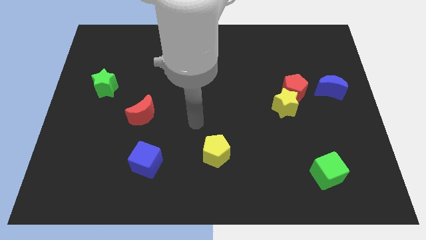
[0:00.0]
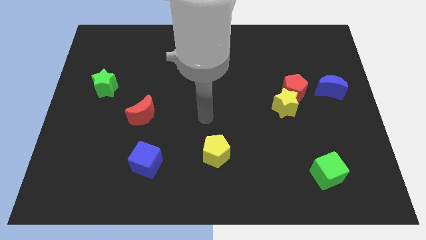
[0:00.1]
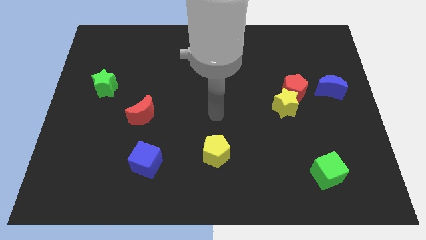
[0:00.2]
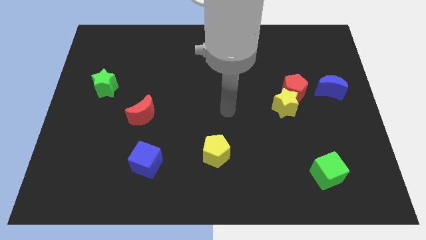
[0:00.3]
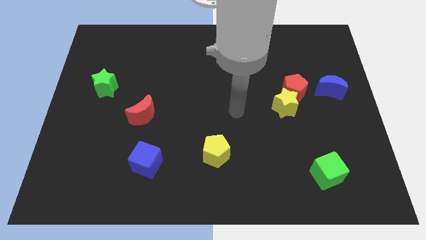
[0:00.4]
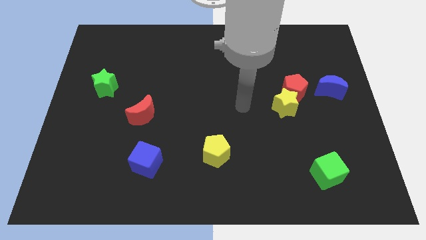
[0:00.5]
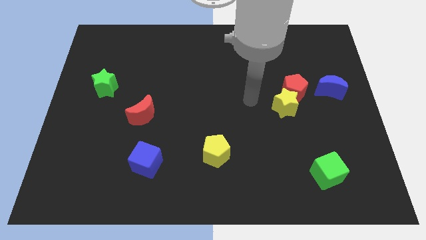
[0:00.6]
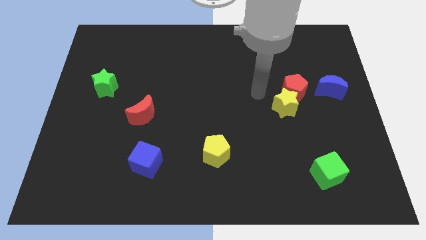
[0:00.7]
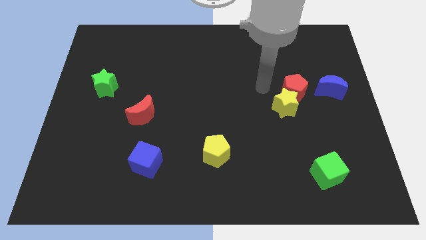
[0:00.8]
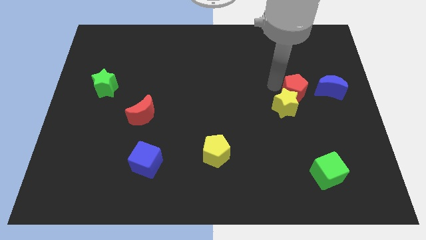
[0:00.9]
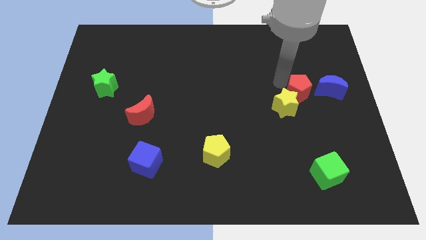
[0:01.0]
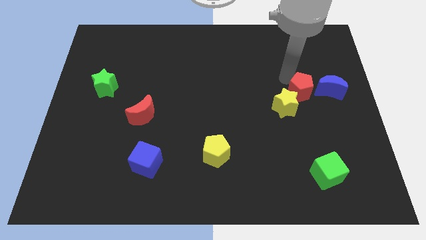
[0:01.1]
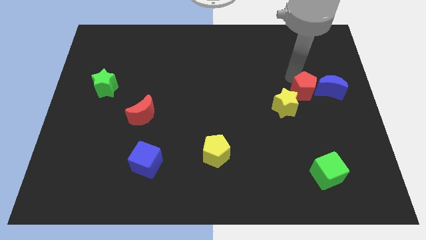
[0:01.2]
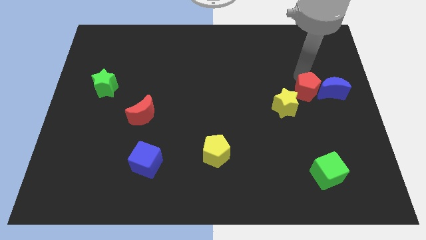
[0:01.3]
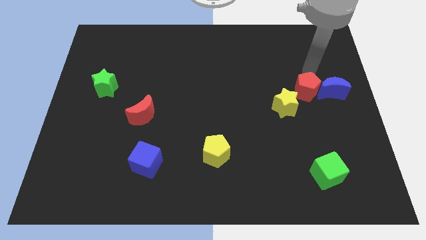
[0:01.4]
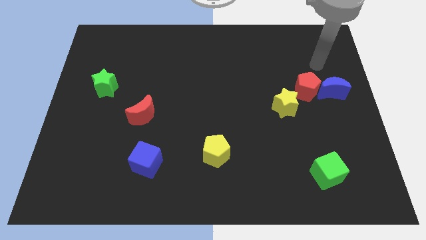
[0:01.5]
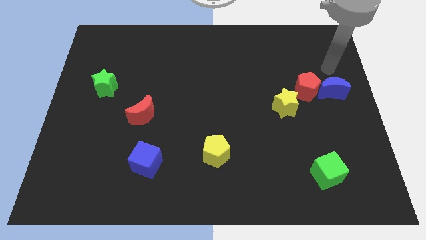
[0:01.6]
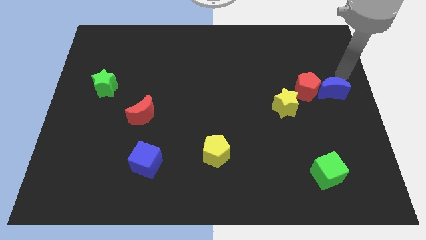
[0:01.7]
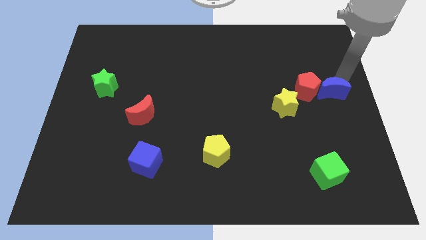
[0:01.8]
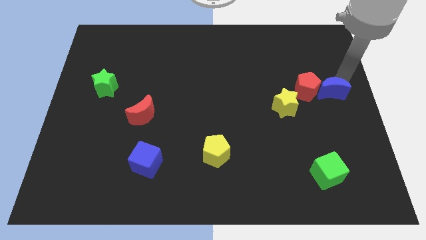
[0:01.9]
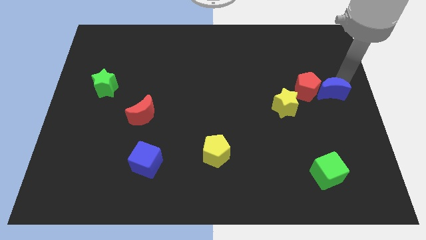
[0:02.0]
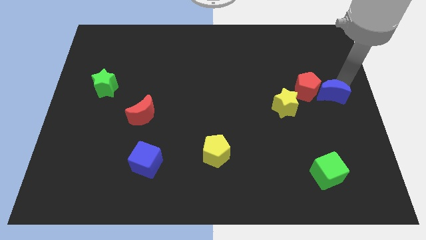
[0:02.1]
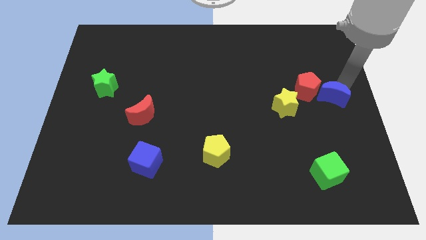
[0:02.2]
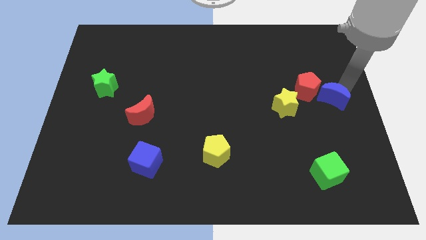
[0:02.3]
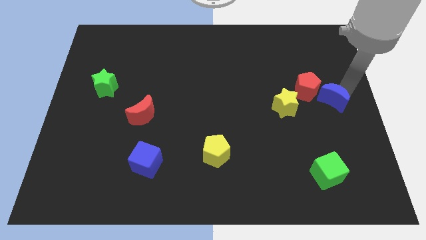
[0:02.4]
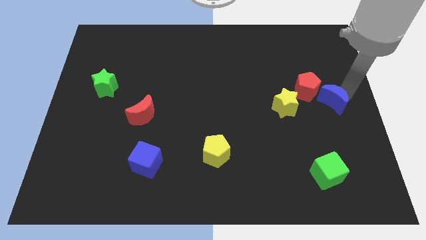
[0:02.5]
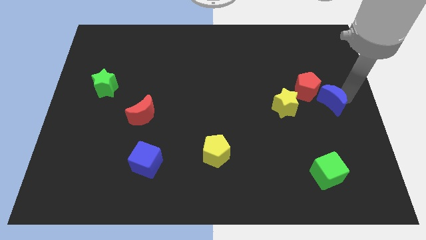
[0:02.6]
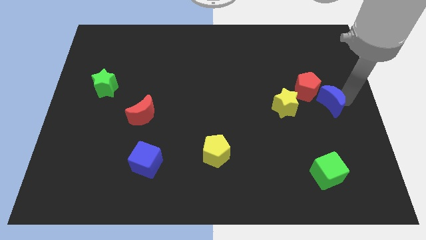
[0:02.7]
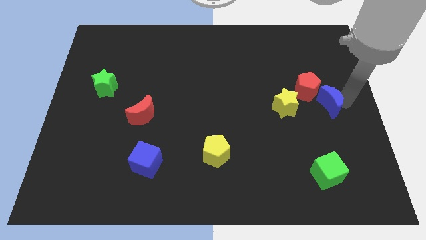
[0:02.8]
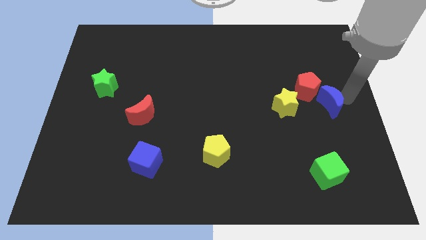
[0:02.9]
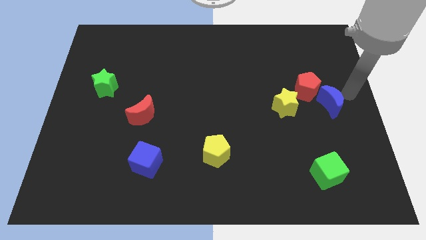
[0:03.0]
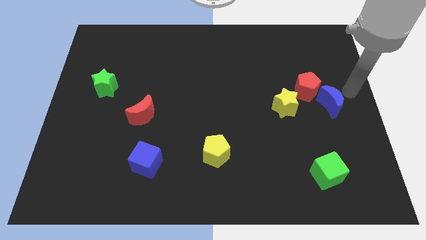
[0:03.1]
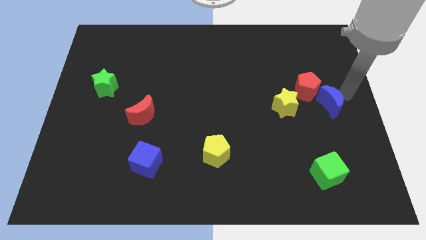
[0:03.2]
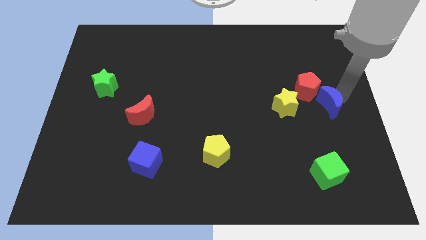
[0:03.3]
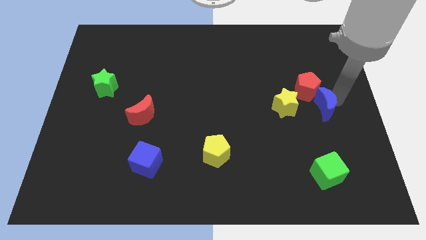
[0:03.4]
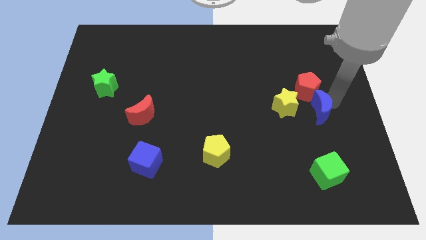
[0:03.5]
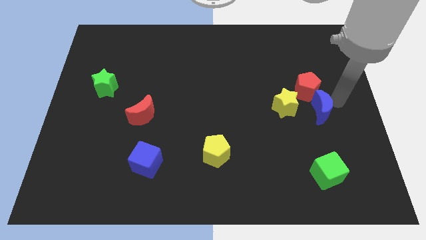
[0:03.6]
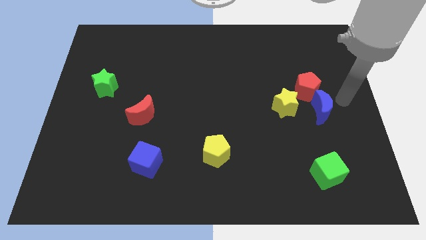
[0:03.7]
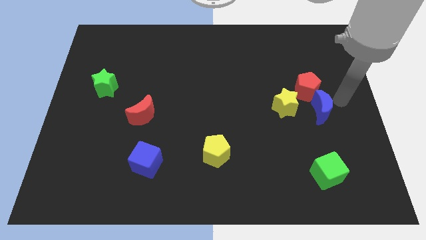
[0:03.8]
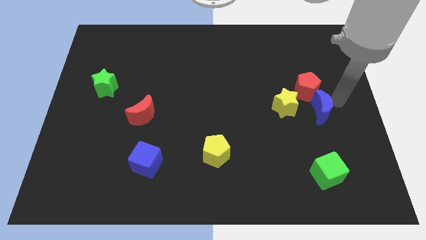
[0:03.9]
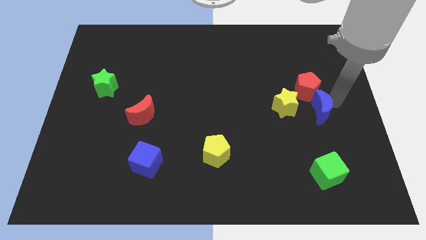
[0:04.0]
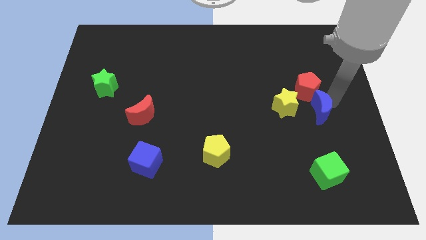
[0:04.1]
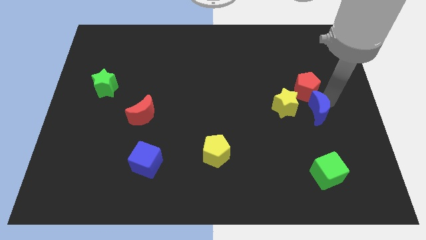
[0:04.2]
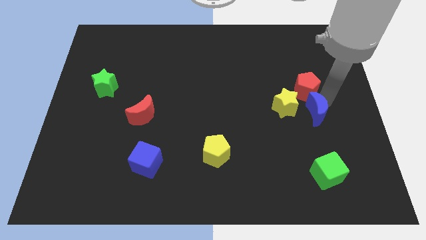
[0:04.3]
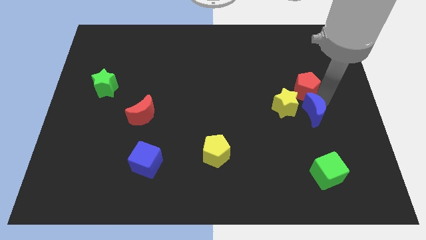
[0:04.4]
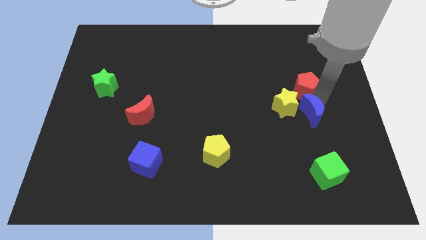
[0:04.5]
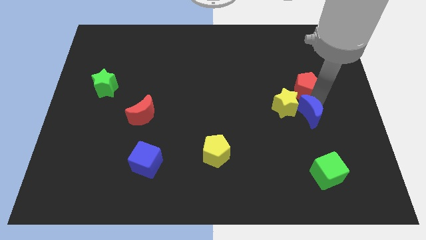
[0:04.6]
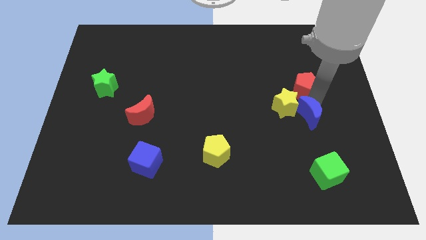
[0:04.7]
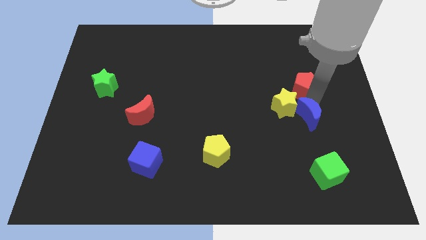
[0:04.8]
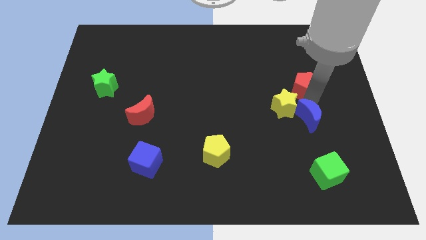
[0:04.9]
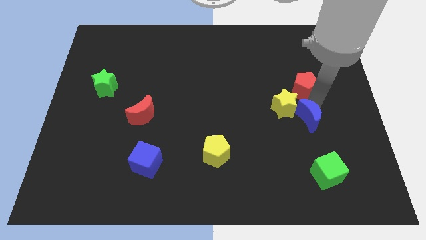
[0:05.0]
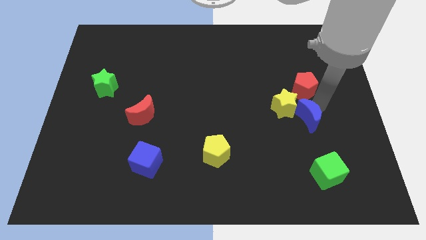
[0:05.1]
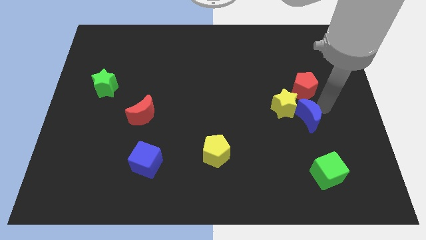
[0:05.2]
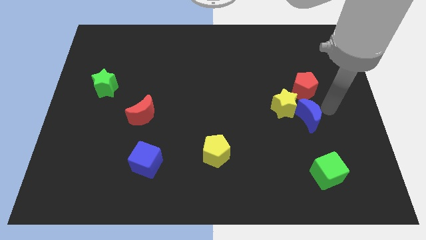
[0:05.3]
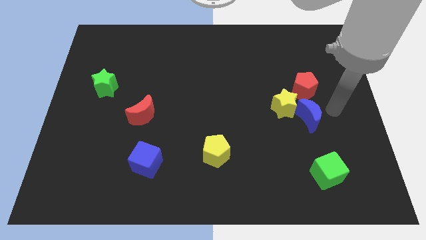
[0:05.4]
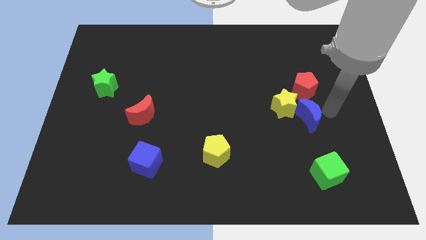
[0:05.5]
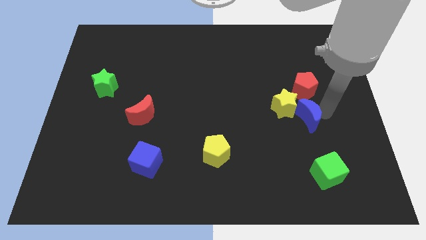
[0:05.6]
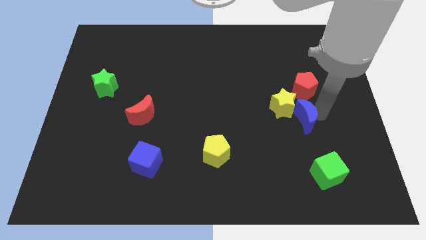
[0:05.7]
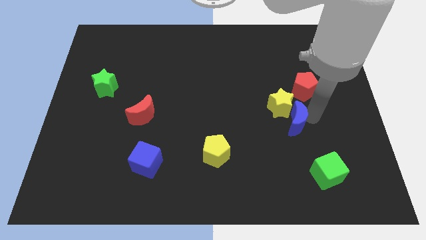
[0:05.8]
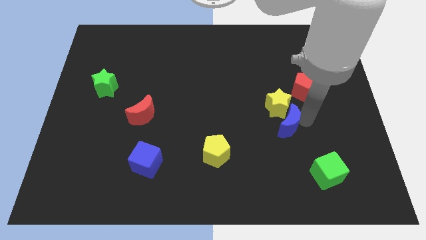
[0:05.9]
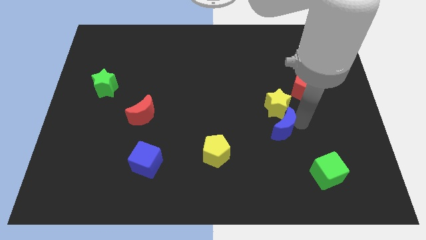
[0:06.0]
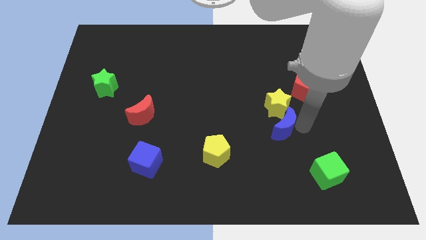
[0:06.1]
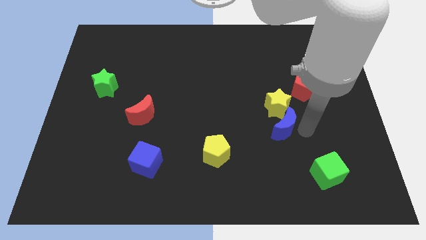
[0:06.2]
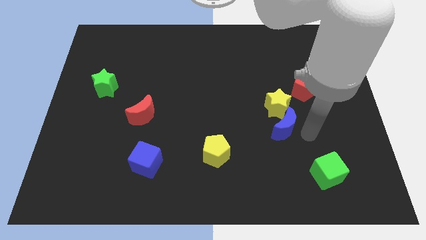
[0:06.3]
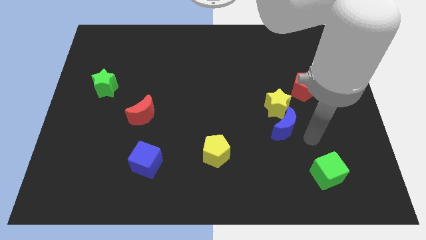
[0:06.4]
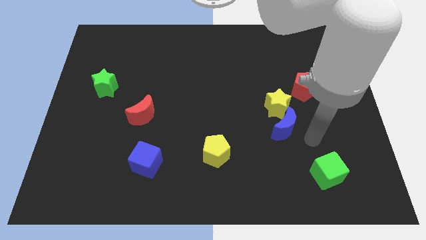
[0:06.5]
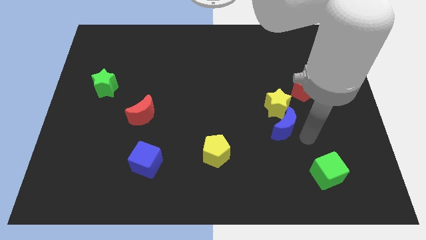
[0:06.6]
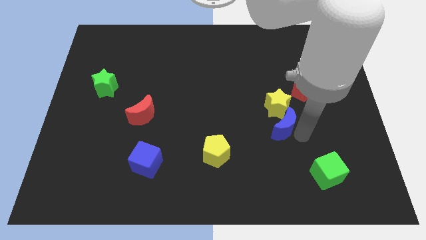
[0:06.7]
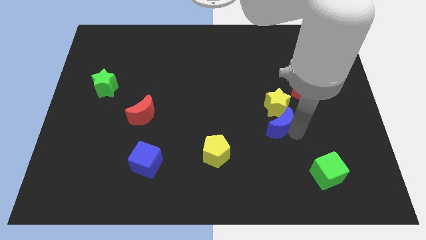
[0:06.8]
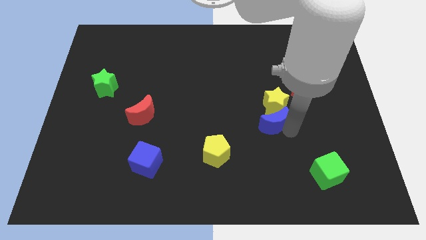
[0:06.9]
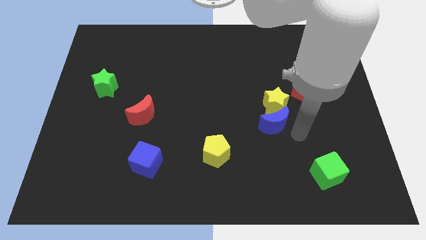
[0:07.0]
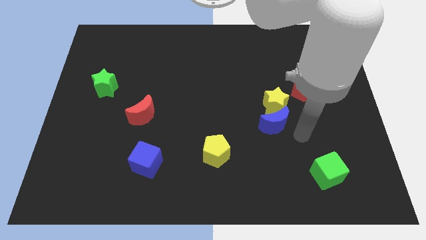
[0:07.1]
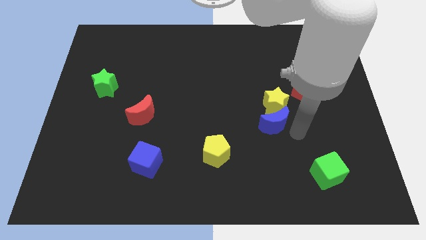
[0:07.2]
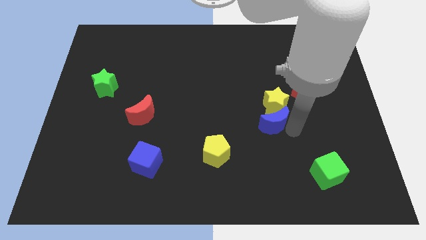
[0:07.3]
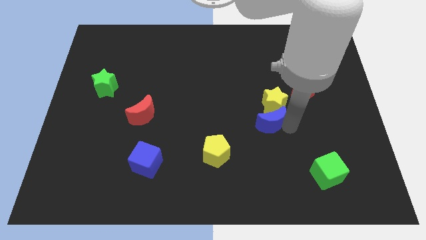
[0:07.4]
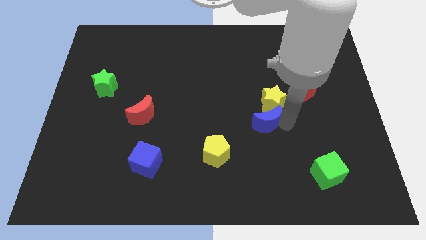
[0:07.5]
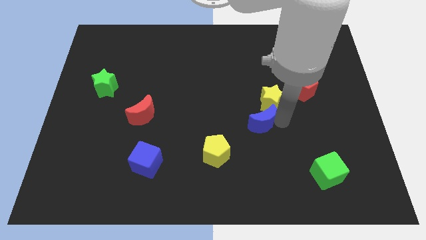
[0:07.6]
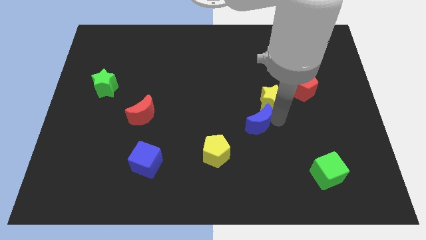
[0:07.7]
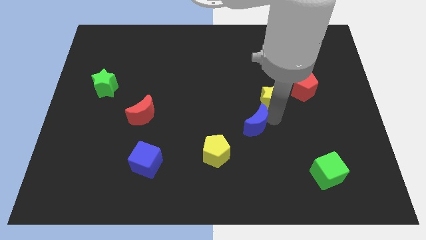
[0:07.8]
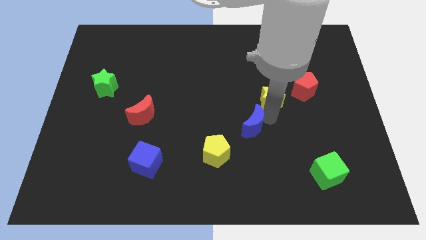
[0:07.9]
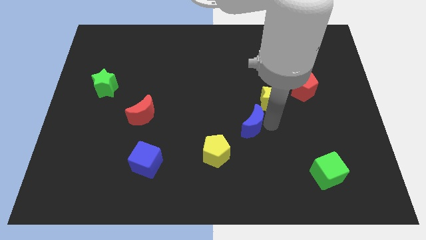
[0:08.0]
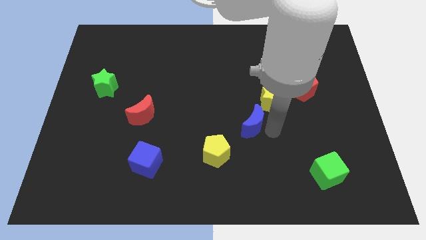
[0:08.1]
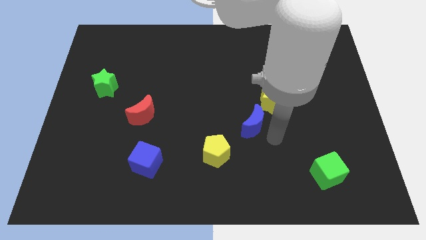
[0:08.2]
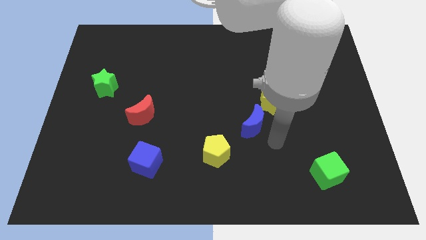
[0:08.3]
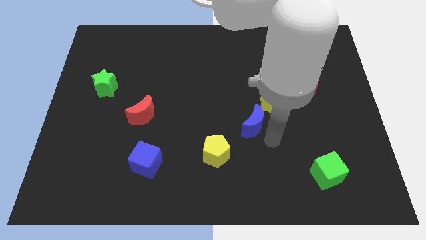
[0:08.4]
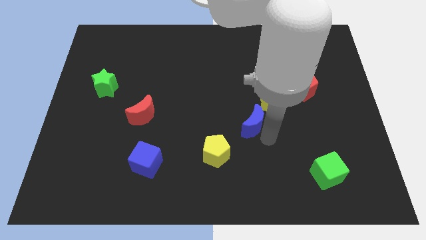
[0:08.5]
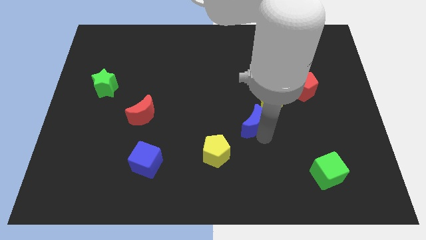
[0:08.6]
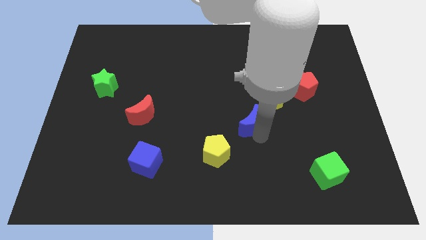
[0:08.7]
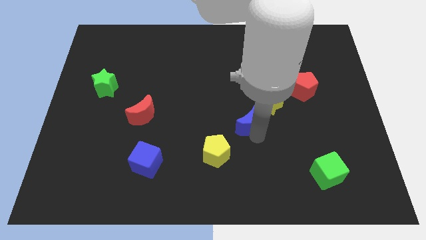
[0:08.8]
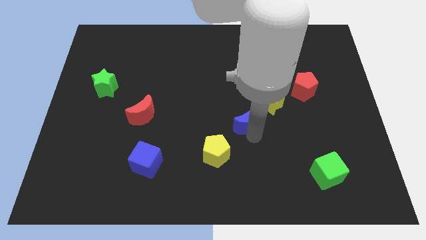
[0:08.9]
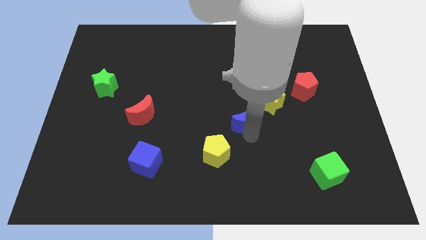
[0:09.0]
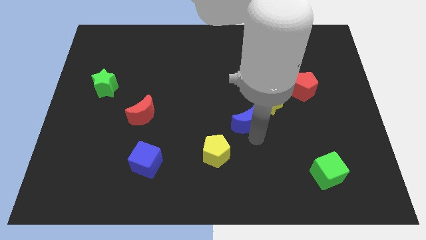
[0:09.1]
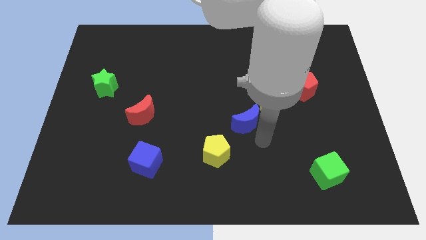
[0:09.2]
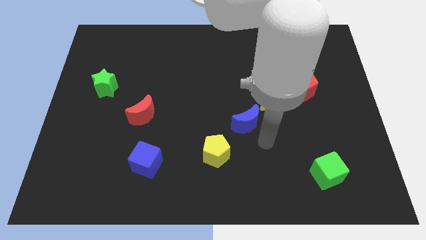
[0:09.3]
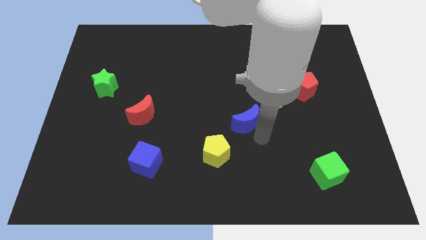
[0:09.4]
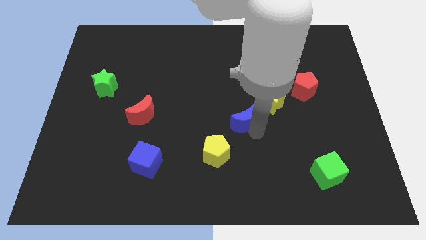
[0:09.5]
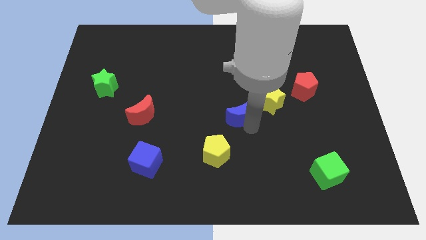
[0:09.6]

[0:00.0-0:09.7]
put the blue moon to the left of the yellow star
